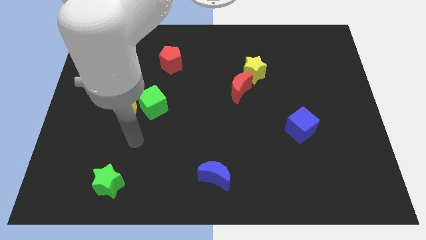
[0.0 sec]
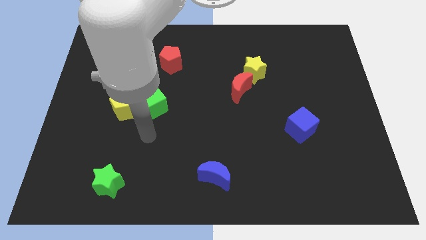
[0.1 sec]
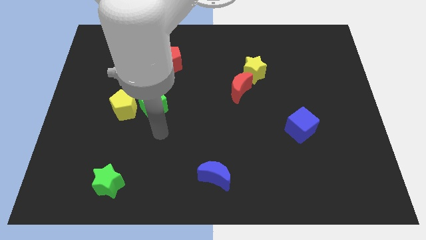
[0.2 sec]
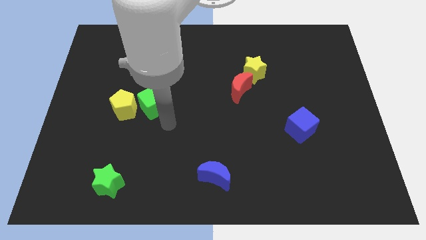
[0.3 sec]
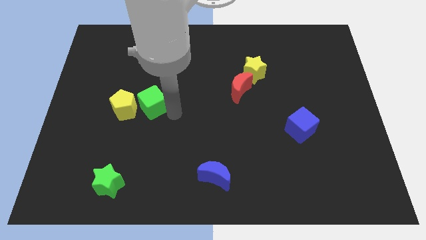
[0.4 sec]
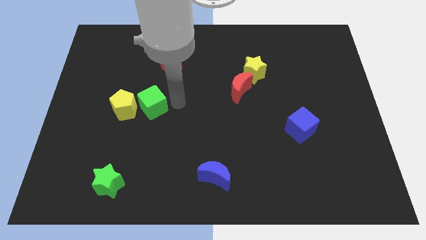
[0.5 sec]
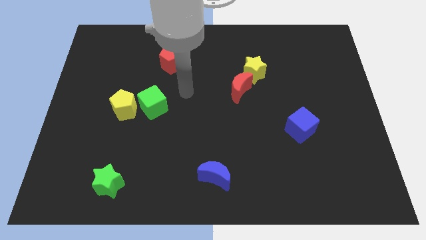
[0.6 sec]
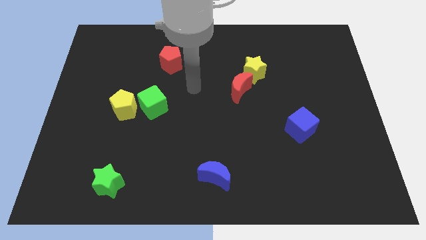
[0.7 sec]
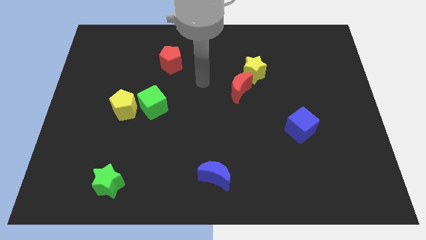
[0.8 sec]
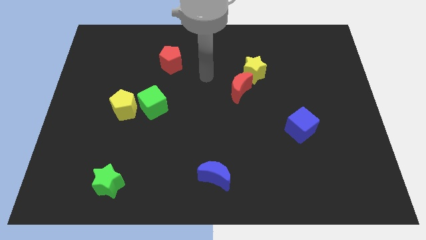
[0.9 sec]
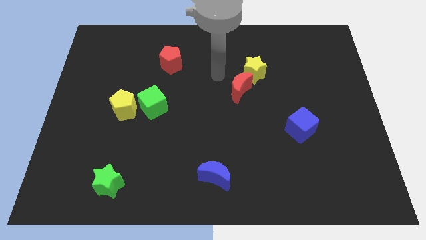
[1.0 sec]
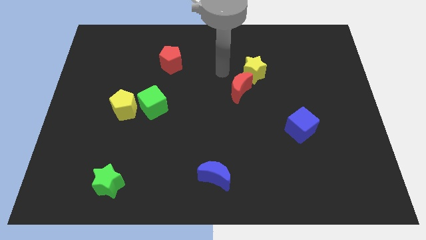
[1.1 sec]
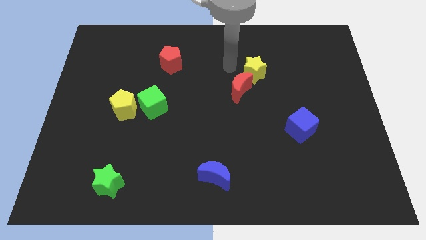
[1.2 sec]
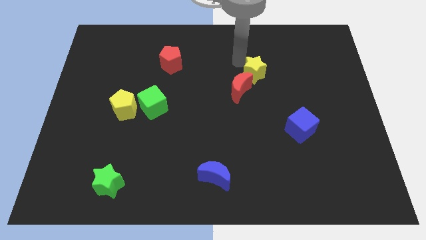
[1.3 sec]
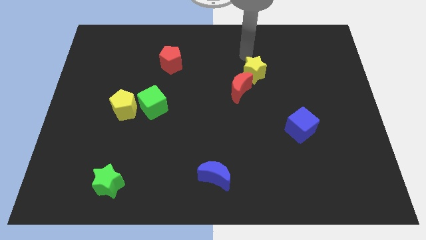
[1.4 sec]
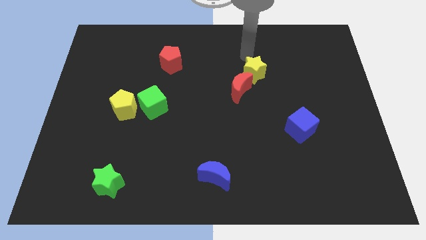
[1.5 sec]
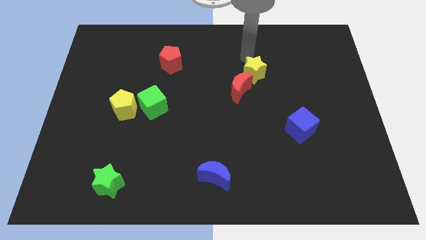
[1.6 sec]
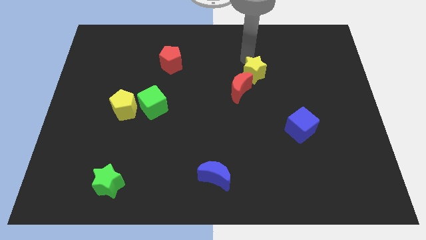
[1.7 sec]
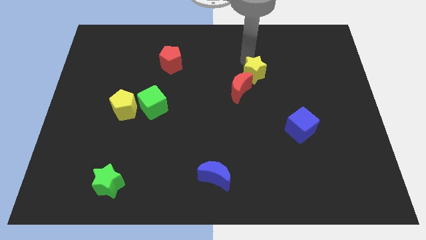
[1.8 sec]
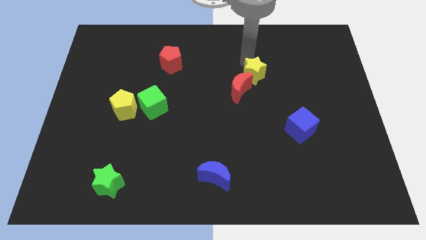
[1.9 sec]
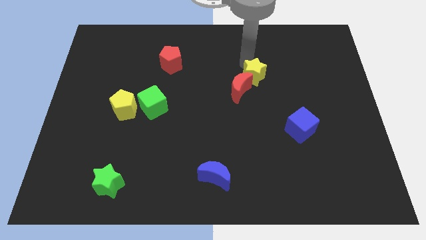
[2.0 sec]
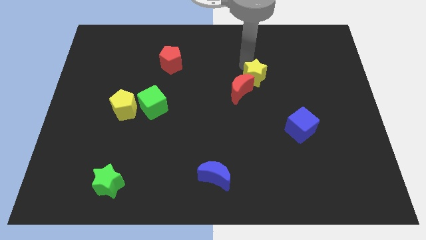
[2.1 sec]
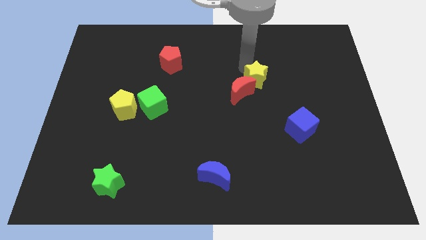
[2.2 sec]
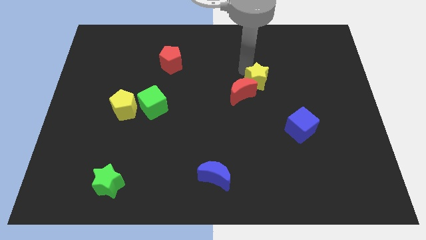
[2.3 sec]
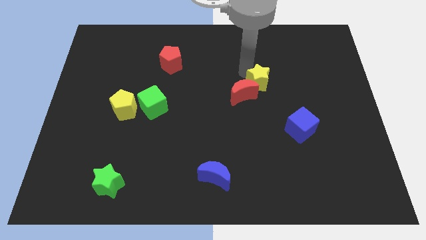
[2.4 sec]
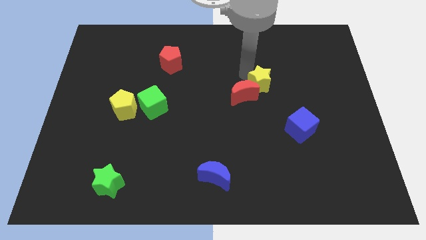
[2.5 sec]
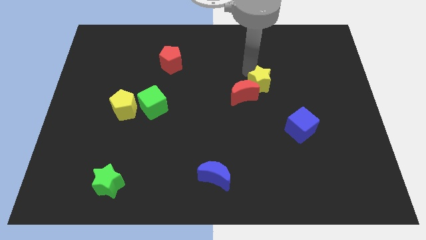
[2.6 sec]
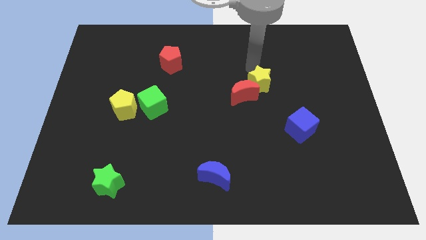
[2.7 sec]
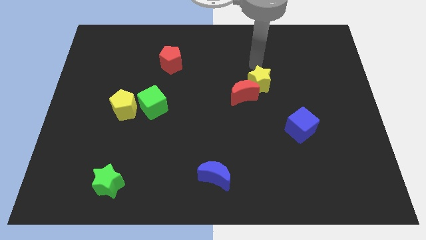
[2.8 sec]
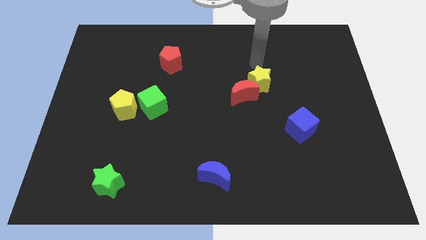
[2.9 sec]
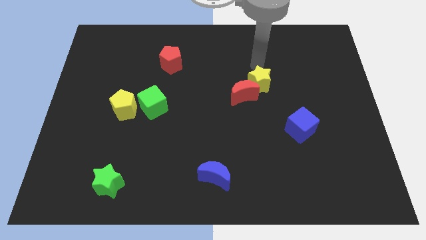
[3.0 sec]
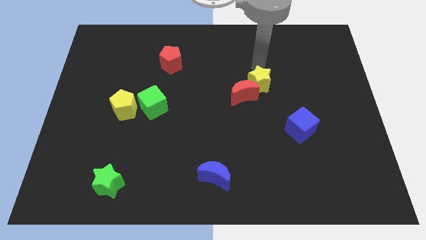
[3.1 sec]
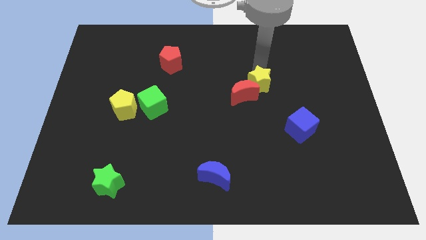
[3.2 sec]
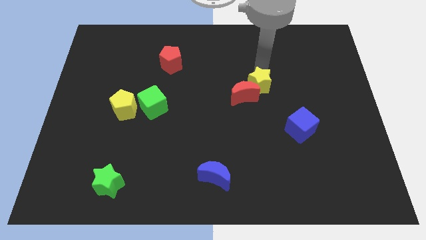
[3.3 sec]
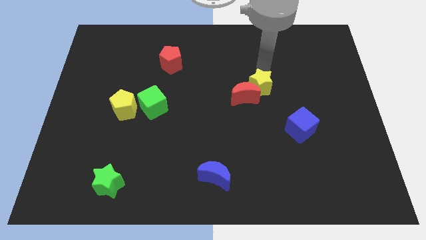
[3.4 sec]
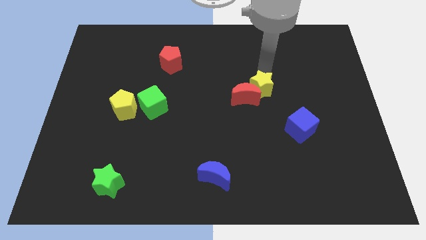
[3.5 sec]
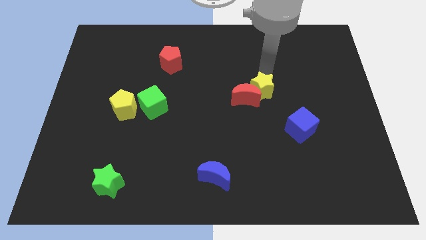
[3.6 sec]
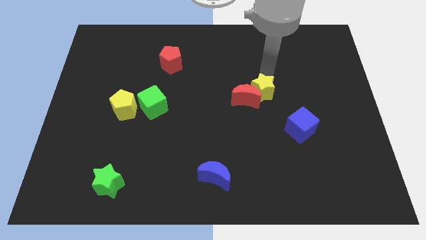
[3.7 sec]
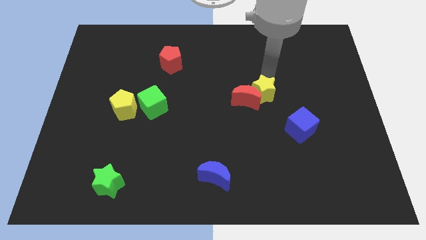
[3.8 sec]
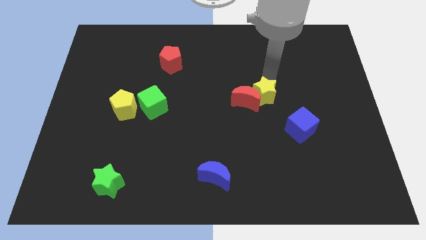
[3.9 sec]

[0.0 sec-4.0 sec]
slide the yellow star slightly downwards

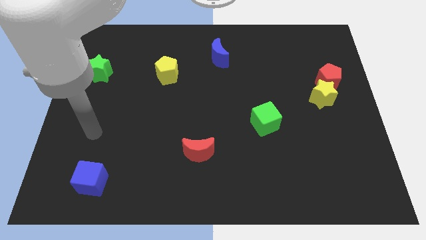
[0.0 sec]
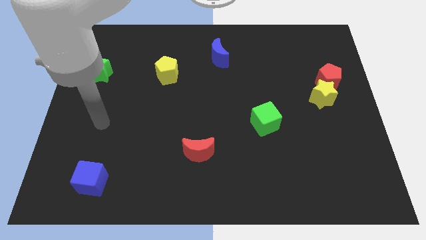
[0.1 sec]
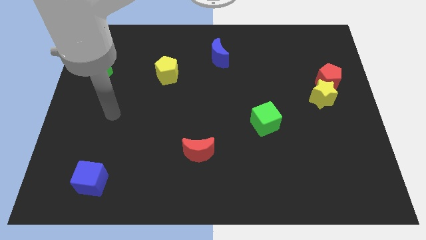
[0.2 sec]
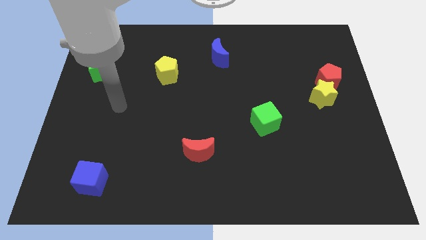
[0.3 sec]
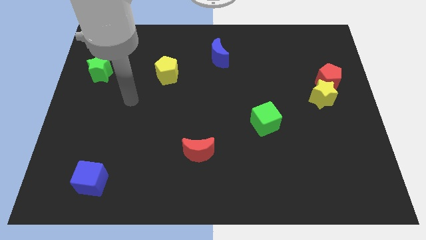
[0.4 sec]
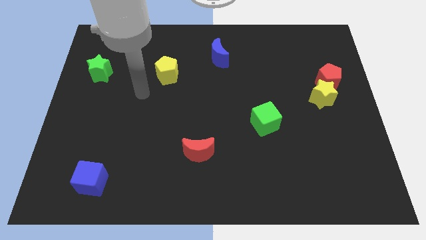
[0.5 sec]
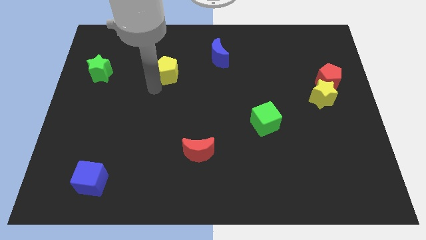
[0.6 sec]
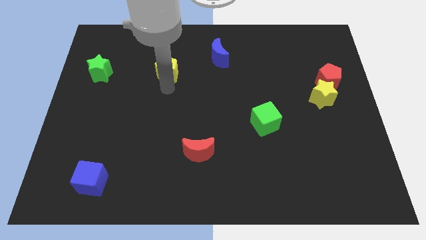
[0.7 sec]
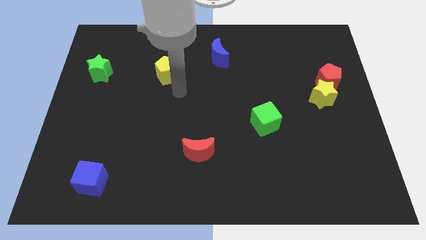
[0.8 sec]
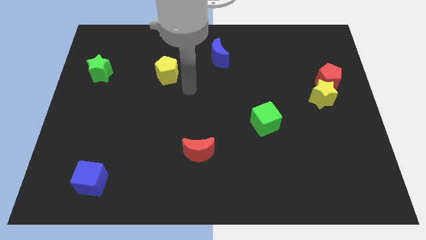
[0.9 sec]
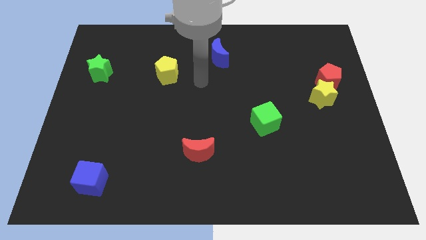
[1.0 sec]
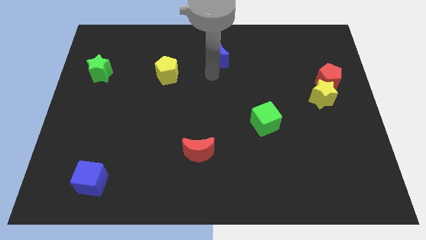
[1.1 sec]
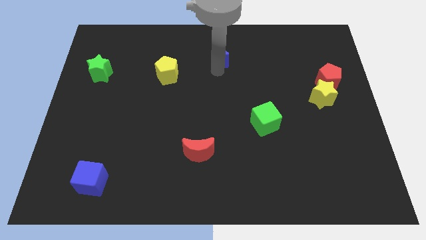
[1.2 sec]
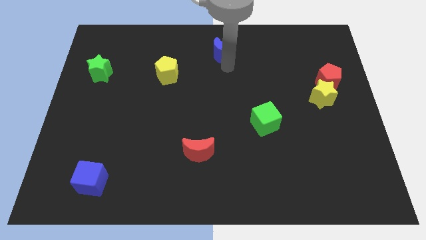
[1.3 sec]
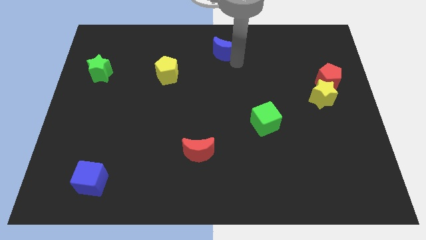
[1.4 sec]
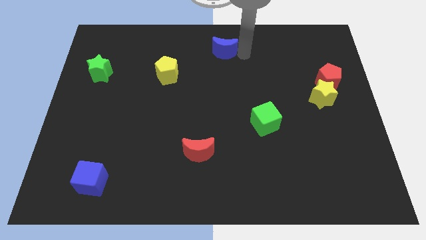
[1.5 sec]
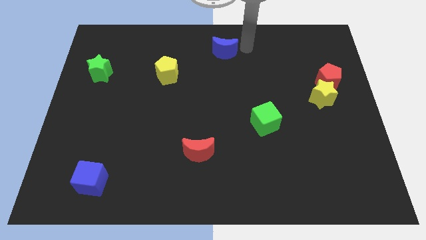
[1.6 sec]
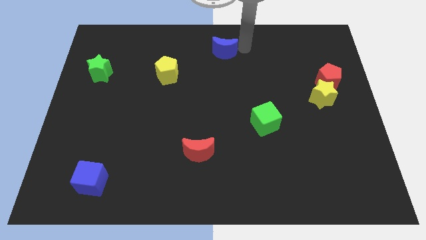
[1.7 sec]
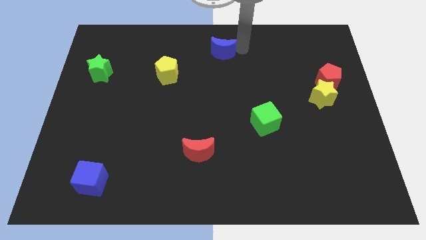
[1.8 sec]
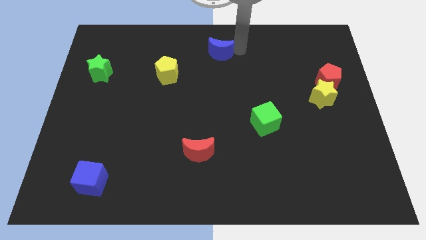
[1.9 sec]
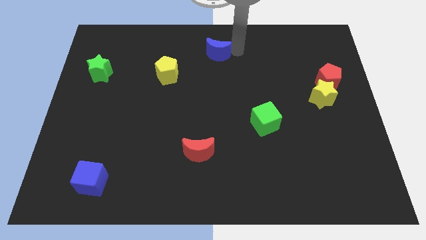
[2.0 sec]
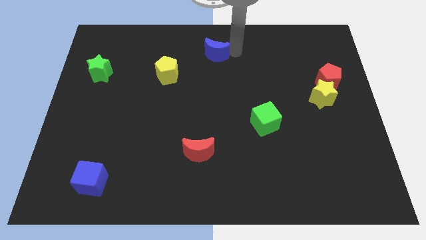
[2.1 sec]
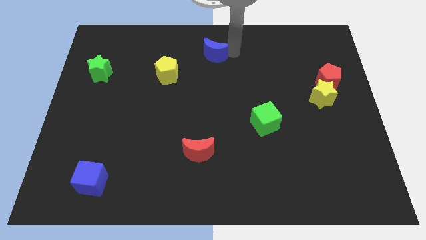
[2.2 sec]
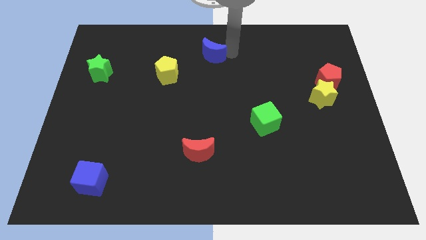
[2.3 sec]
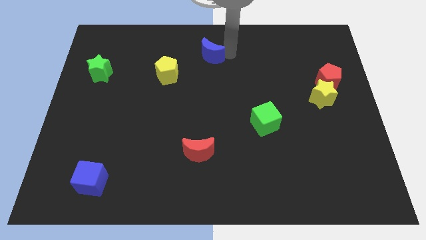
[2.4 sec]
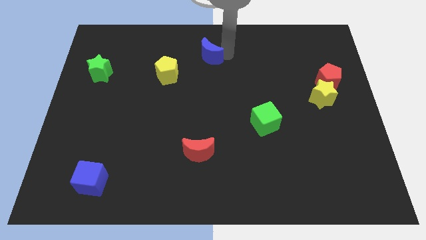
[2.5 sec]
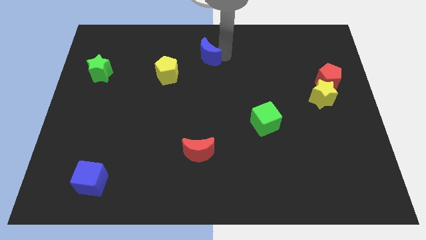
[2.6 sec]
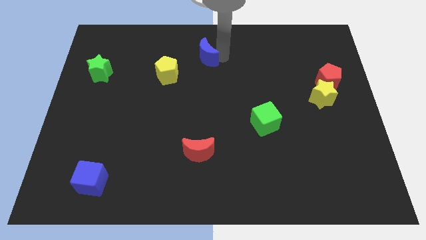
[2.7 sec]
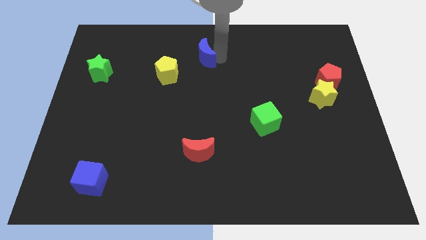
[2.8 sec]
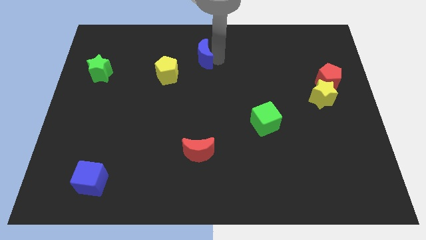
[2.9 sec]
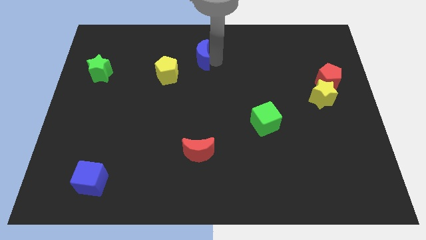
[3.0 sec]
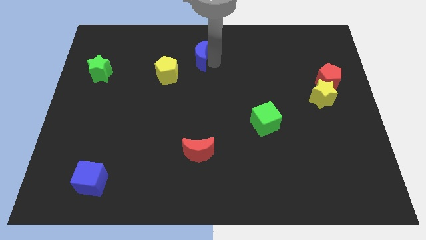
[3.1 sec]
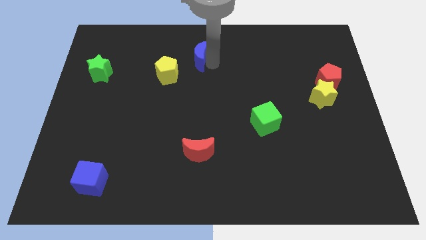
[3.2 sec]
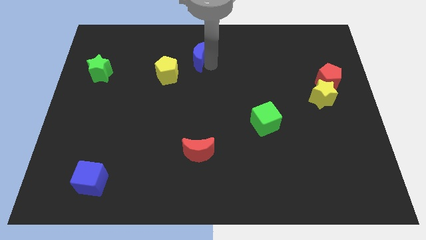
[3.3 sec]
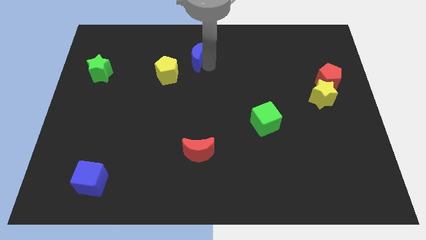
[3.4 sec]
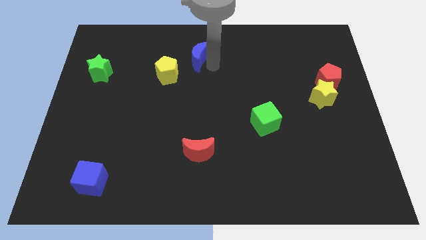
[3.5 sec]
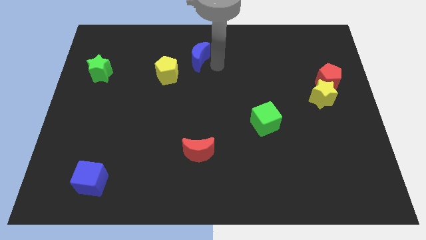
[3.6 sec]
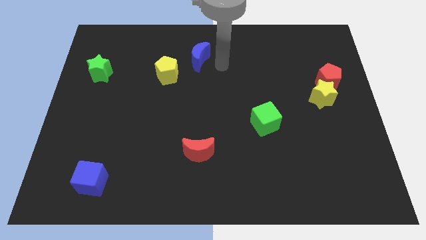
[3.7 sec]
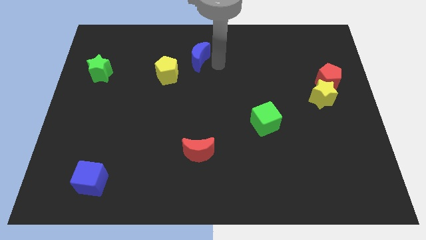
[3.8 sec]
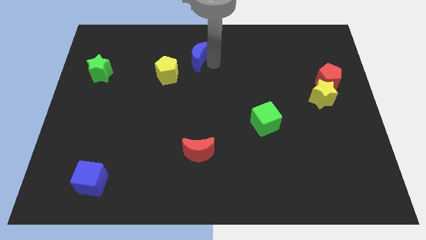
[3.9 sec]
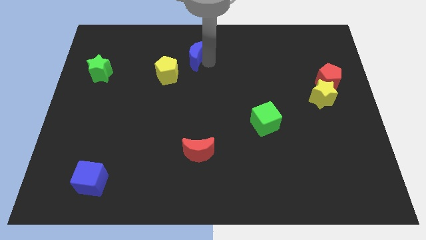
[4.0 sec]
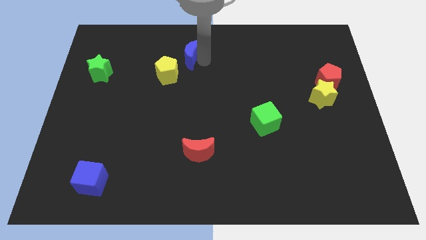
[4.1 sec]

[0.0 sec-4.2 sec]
push the blue moon left somewhat
